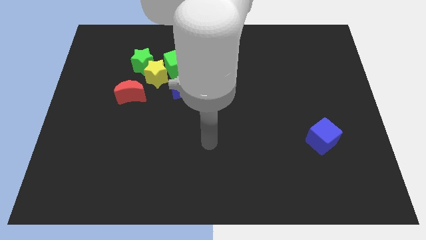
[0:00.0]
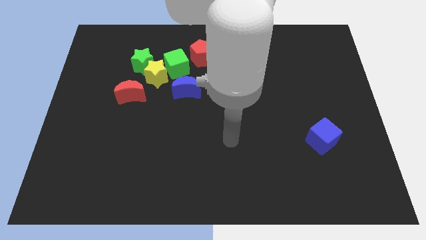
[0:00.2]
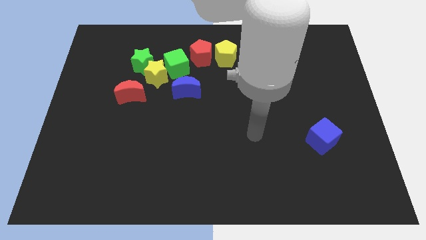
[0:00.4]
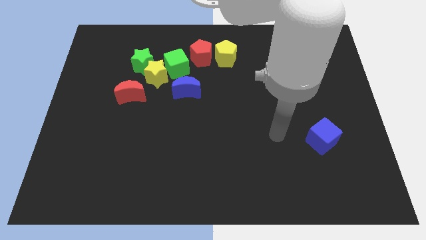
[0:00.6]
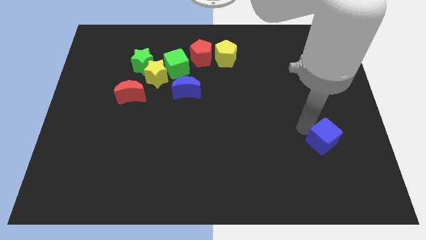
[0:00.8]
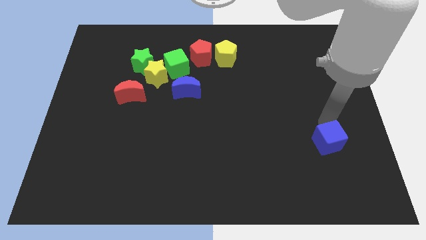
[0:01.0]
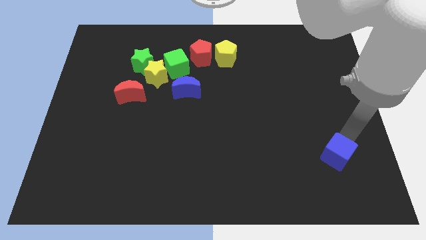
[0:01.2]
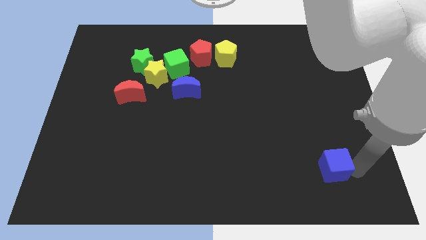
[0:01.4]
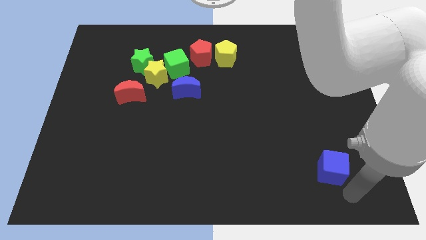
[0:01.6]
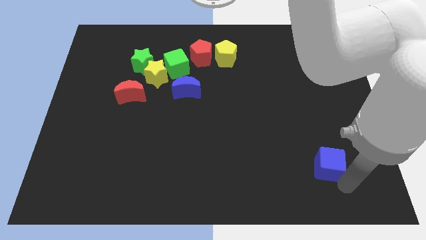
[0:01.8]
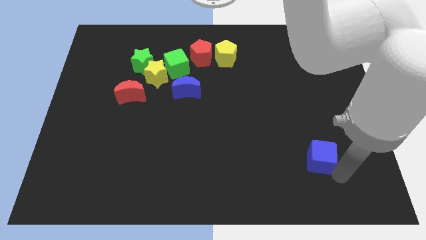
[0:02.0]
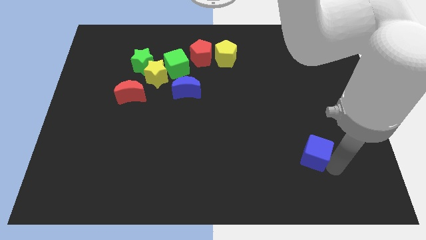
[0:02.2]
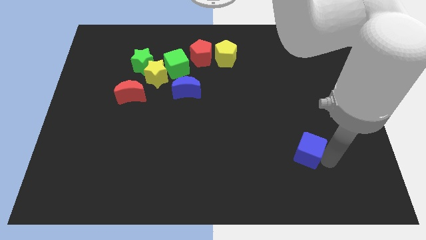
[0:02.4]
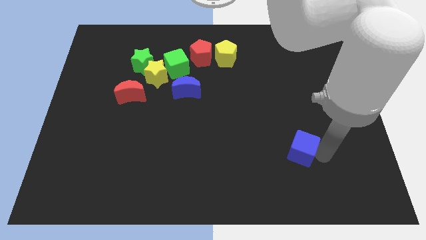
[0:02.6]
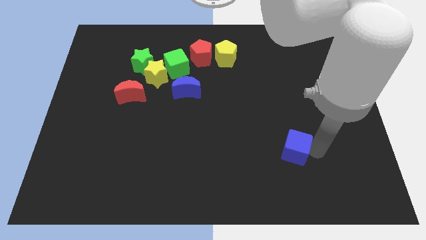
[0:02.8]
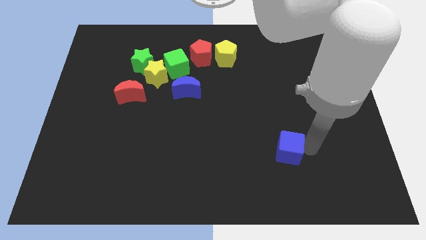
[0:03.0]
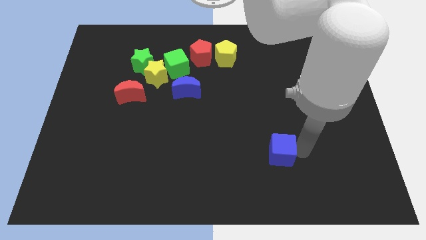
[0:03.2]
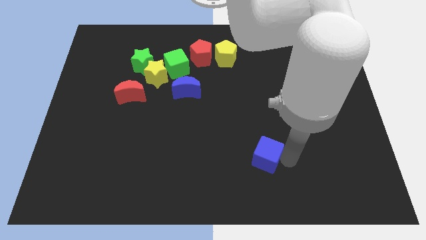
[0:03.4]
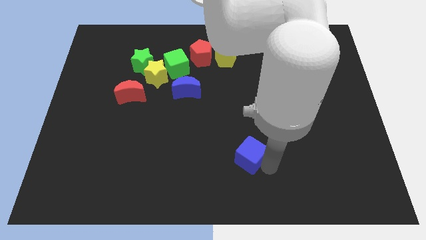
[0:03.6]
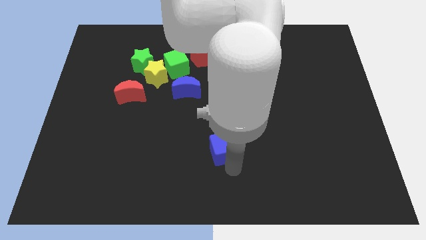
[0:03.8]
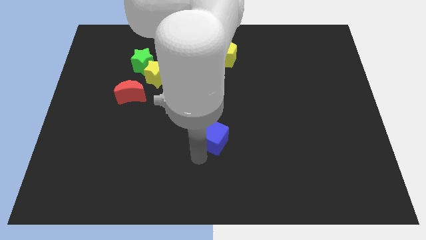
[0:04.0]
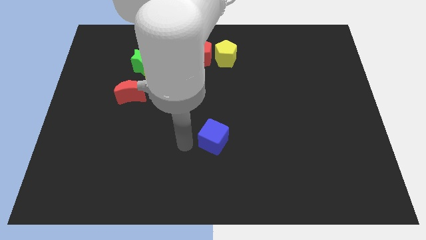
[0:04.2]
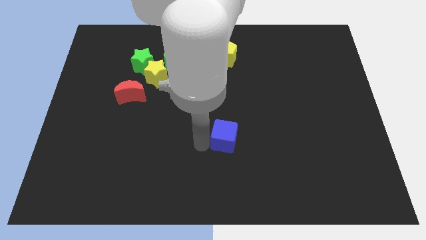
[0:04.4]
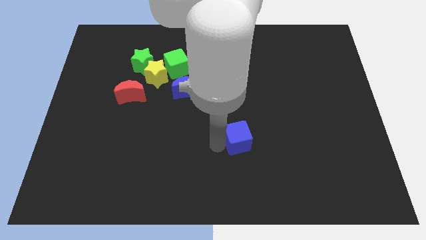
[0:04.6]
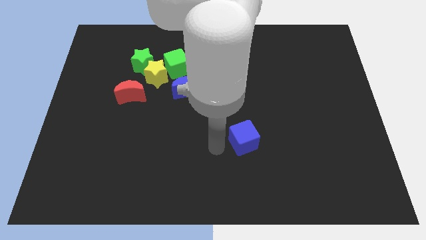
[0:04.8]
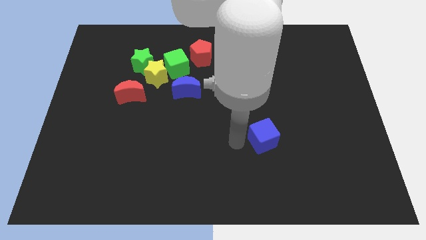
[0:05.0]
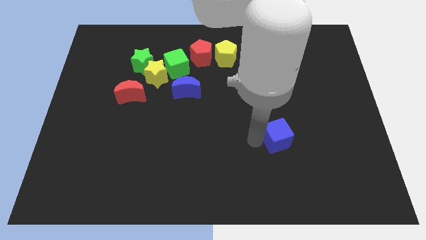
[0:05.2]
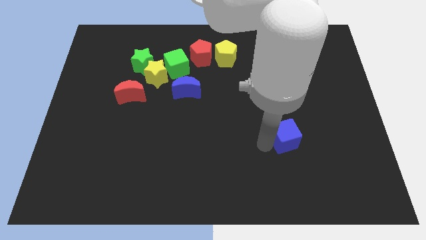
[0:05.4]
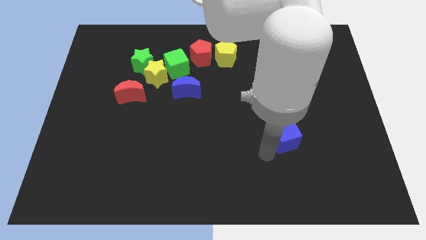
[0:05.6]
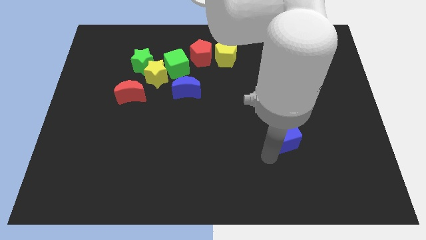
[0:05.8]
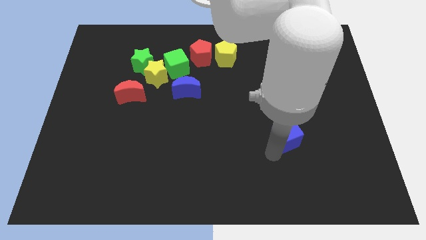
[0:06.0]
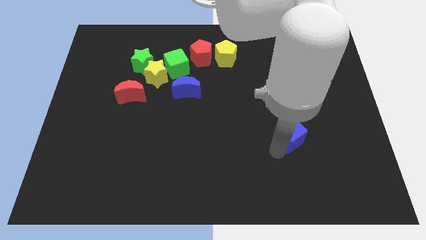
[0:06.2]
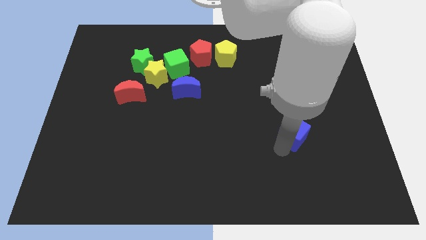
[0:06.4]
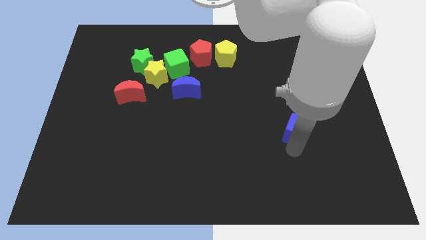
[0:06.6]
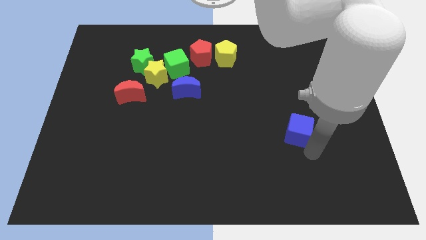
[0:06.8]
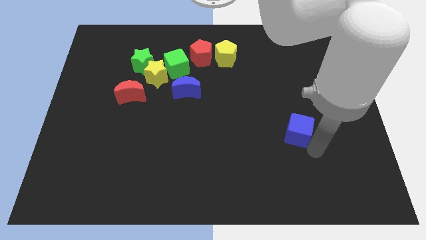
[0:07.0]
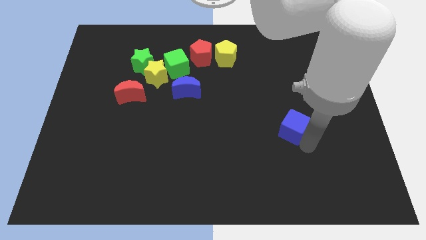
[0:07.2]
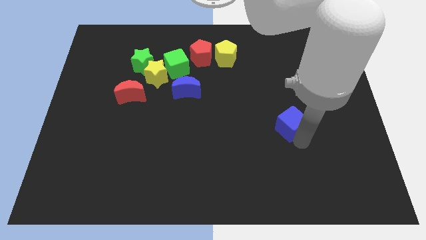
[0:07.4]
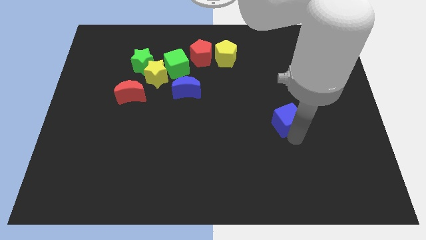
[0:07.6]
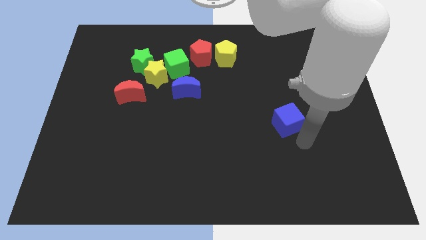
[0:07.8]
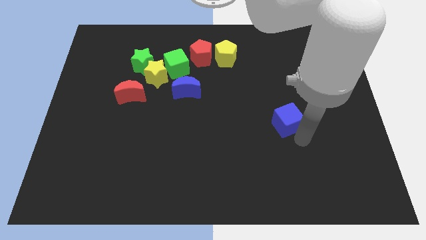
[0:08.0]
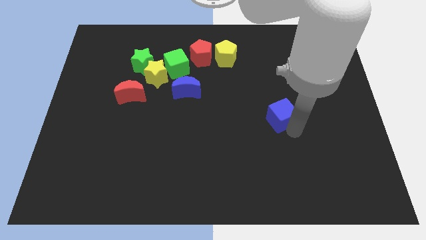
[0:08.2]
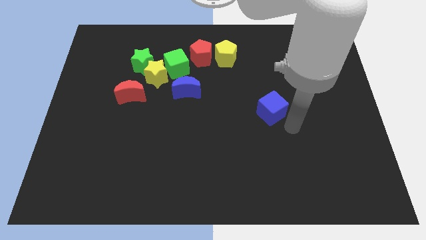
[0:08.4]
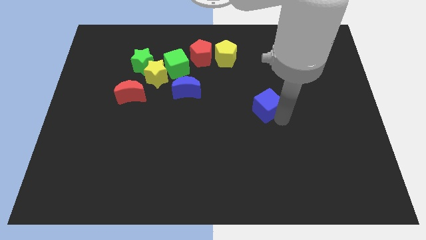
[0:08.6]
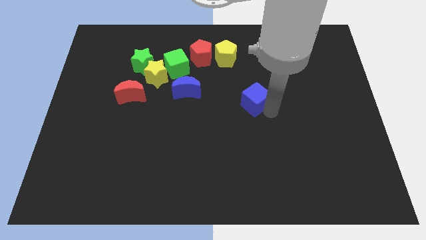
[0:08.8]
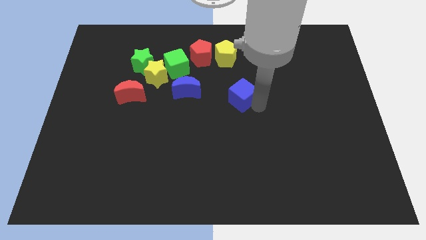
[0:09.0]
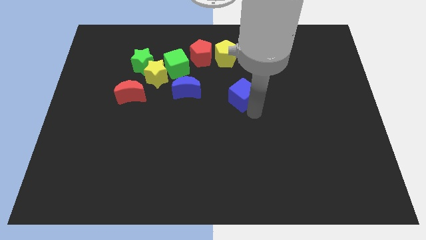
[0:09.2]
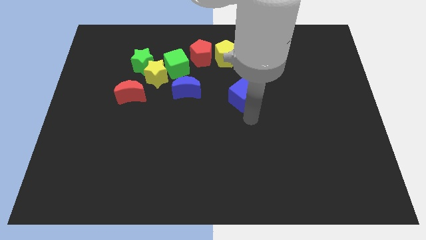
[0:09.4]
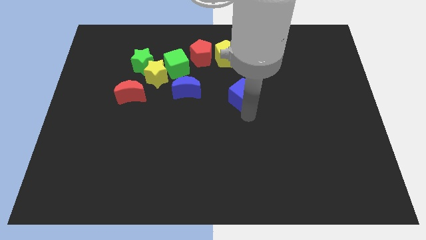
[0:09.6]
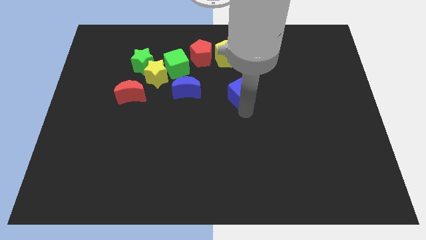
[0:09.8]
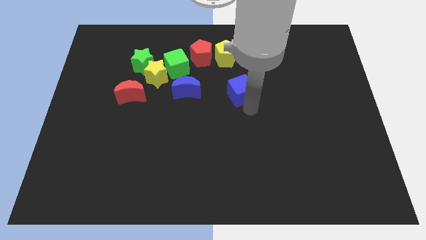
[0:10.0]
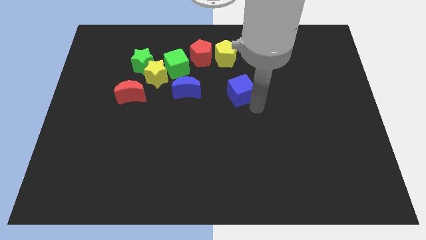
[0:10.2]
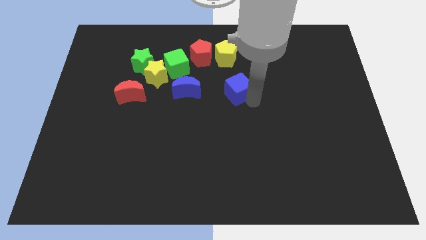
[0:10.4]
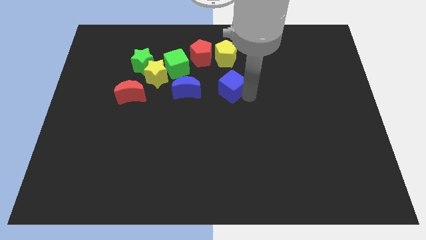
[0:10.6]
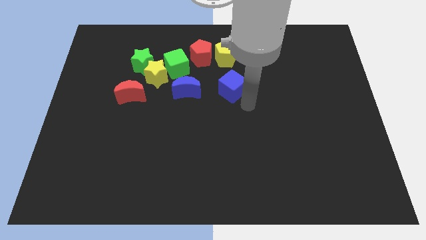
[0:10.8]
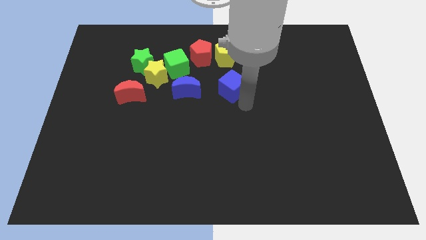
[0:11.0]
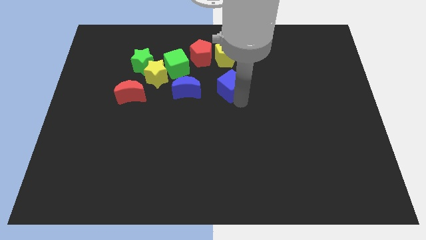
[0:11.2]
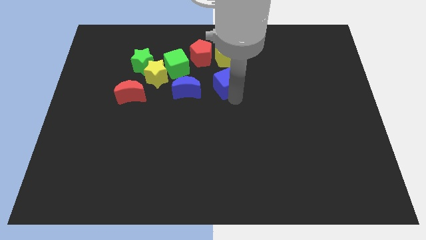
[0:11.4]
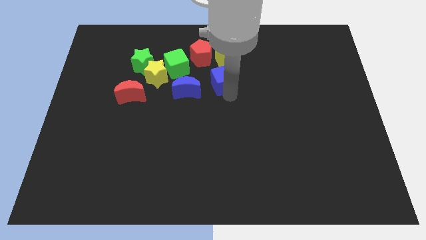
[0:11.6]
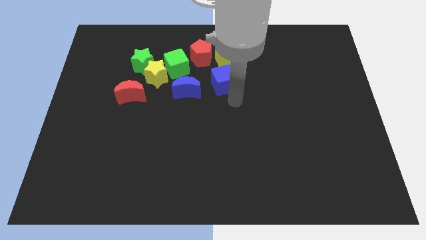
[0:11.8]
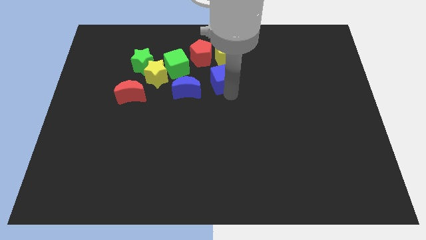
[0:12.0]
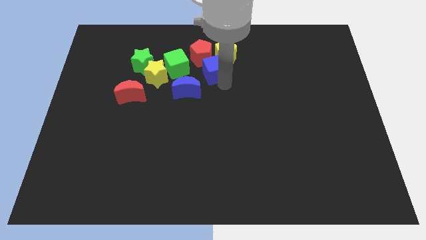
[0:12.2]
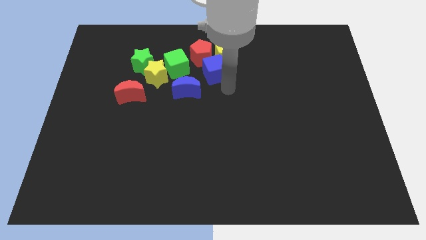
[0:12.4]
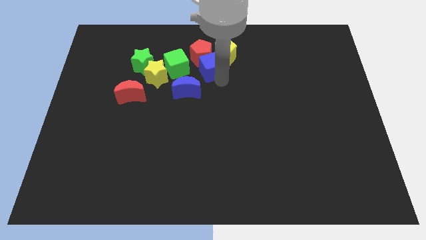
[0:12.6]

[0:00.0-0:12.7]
push the blue cube to the red pentagon

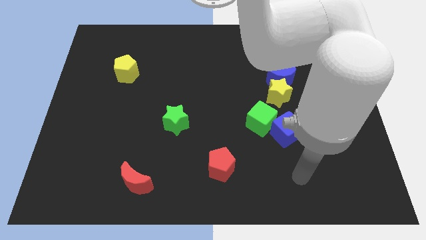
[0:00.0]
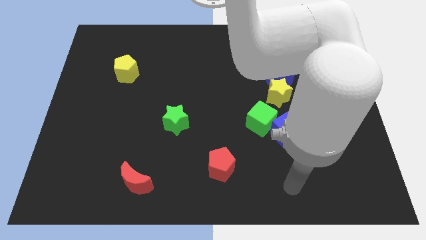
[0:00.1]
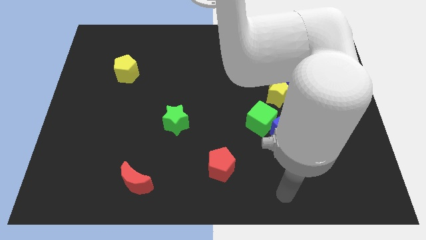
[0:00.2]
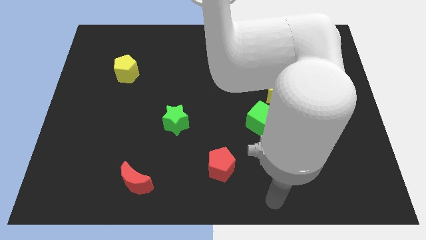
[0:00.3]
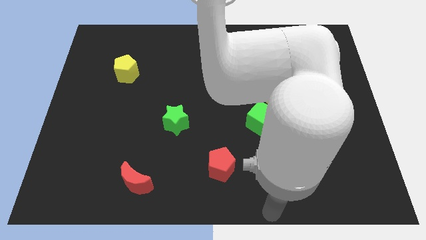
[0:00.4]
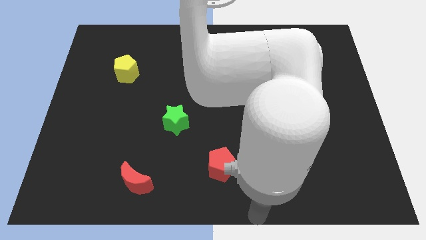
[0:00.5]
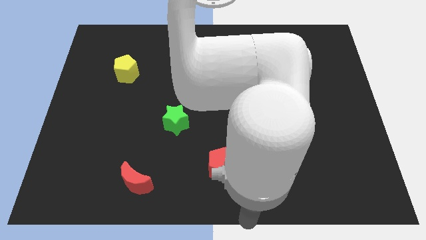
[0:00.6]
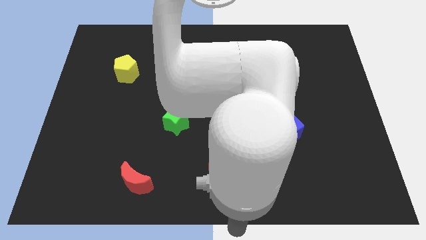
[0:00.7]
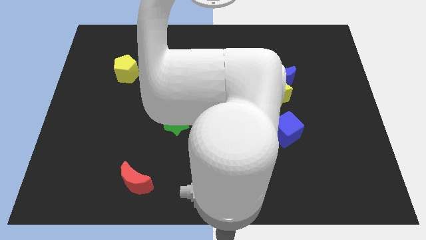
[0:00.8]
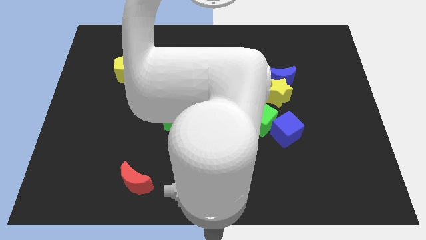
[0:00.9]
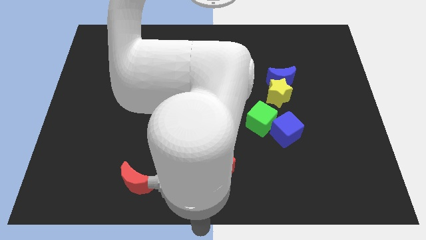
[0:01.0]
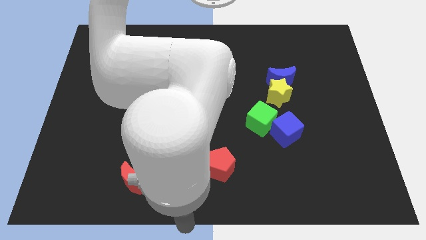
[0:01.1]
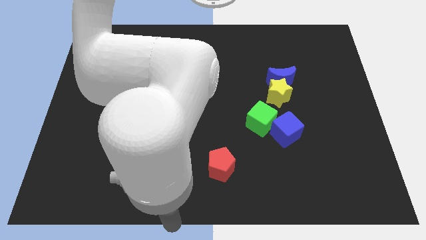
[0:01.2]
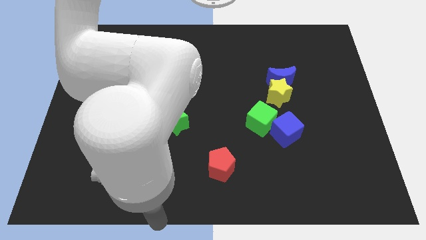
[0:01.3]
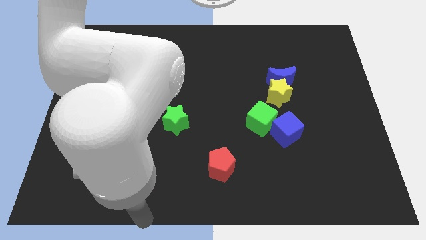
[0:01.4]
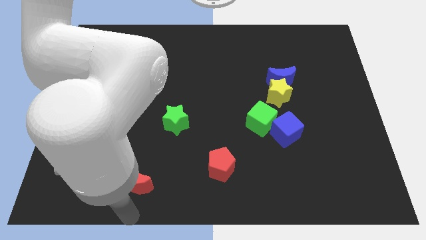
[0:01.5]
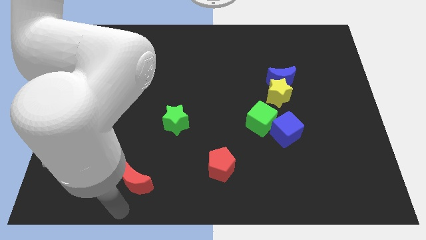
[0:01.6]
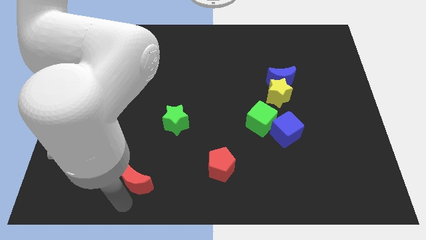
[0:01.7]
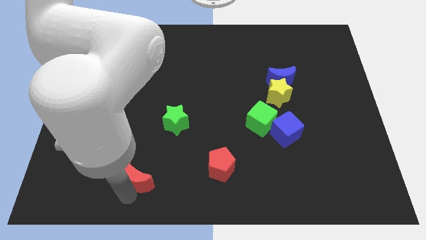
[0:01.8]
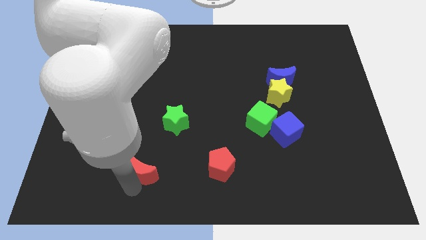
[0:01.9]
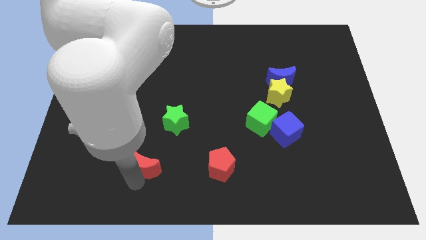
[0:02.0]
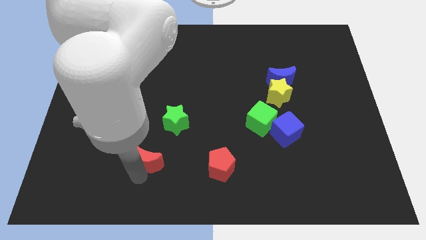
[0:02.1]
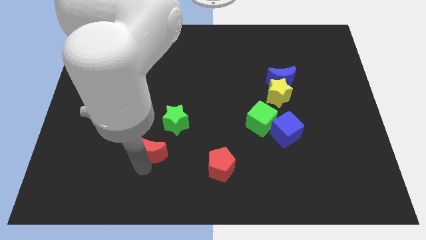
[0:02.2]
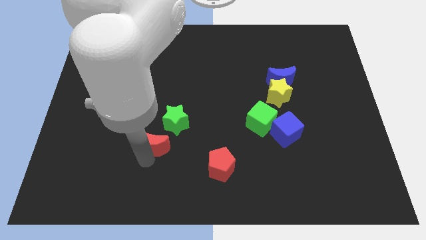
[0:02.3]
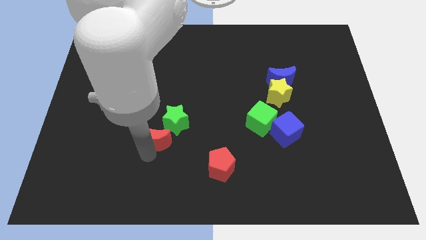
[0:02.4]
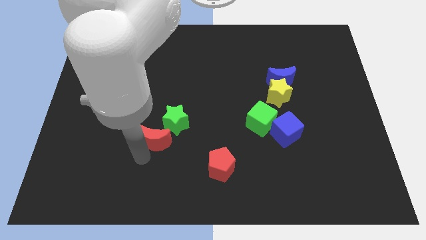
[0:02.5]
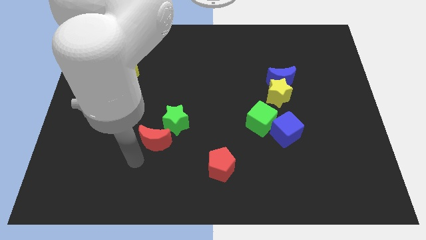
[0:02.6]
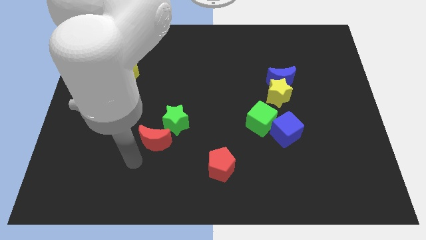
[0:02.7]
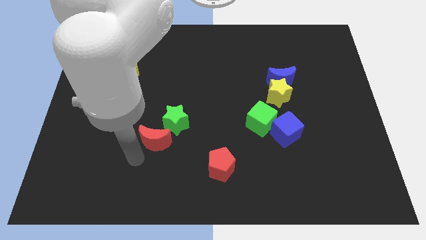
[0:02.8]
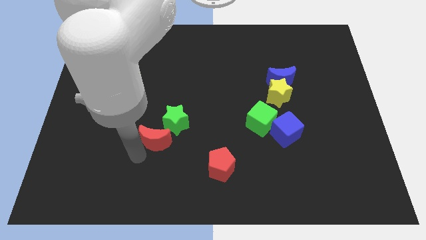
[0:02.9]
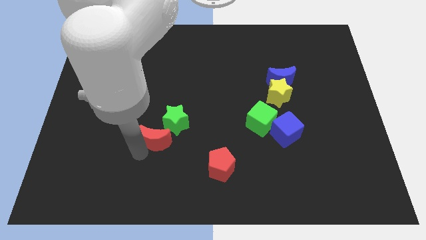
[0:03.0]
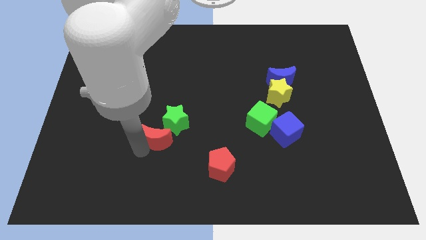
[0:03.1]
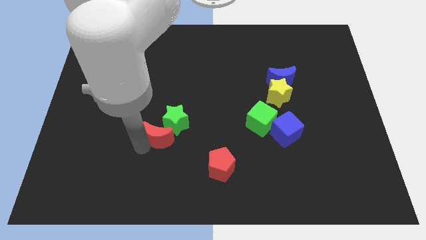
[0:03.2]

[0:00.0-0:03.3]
slide the red moon towards the green star
